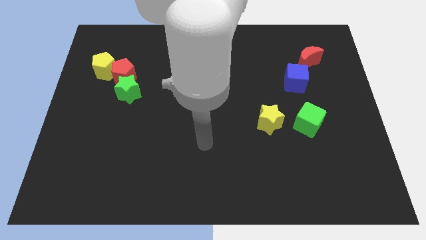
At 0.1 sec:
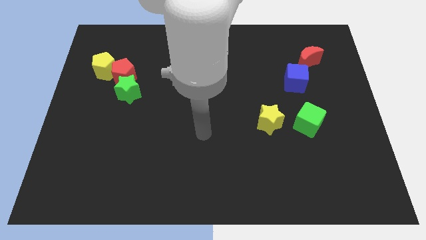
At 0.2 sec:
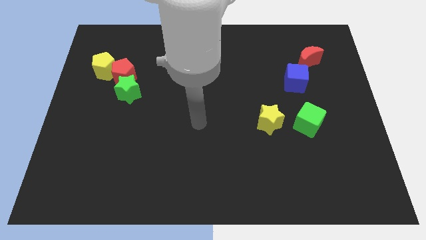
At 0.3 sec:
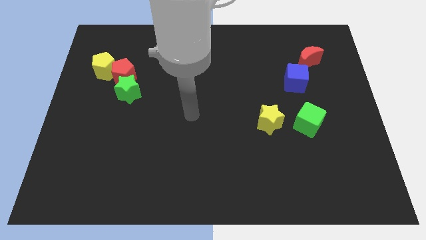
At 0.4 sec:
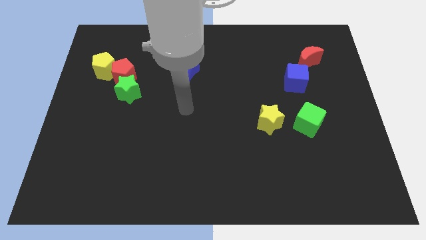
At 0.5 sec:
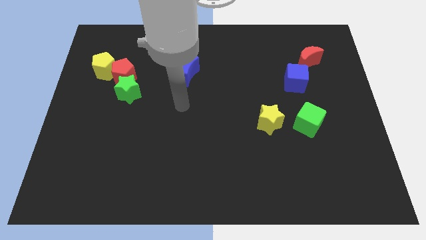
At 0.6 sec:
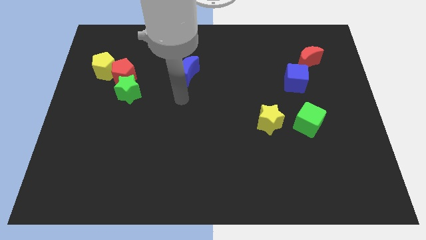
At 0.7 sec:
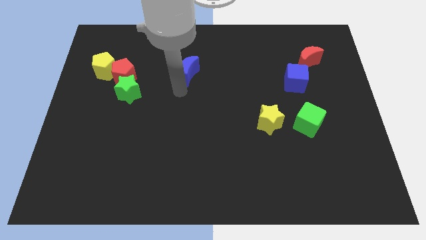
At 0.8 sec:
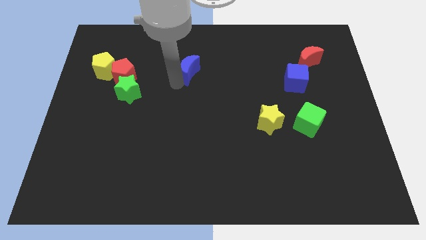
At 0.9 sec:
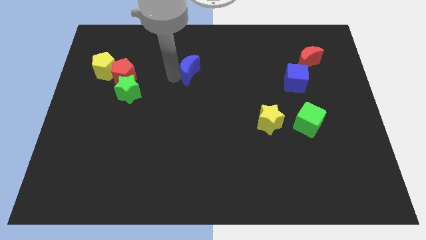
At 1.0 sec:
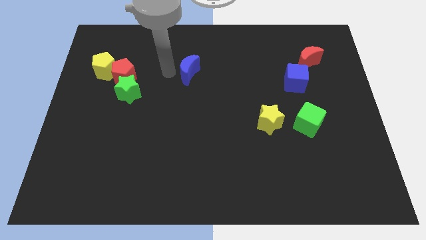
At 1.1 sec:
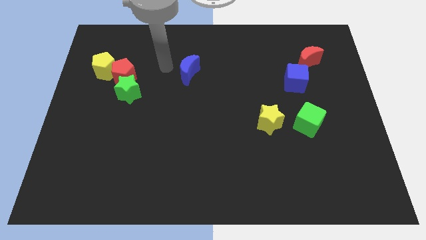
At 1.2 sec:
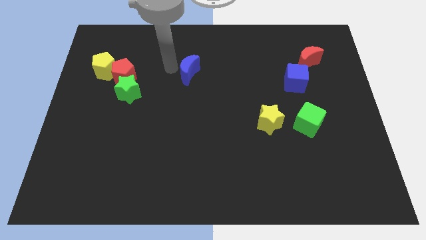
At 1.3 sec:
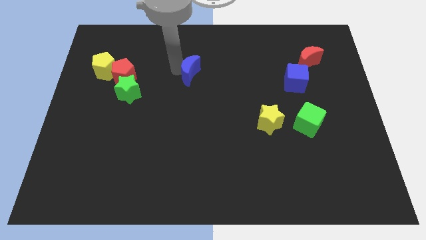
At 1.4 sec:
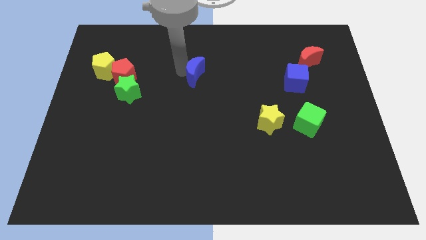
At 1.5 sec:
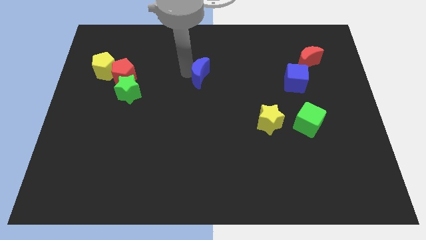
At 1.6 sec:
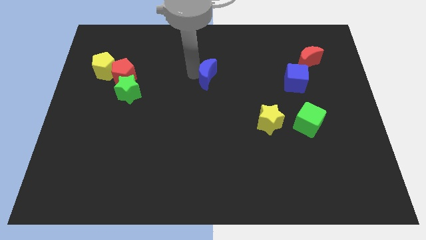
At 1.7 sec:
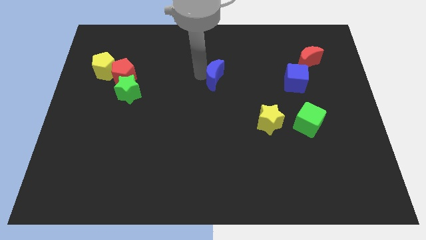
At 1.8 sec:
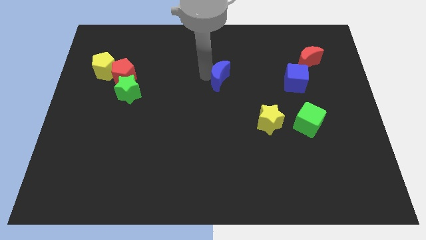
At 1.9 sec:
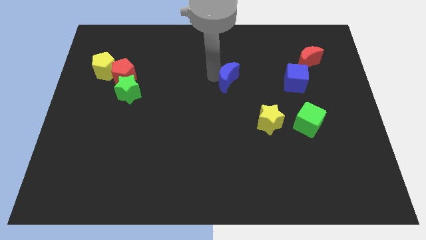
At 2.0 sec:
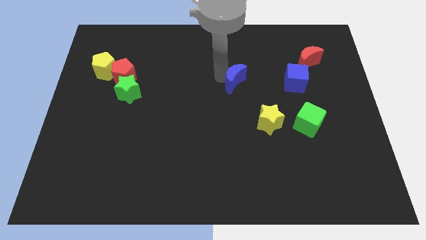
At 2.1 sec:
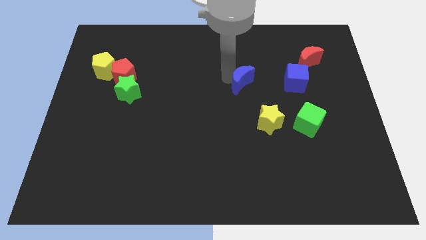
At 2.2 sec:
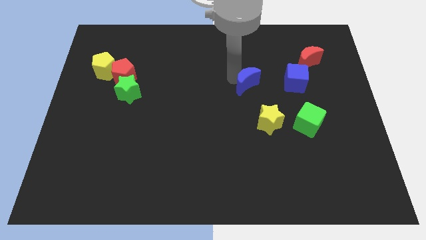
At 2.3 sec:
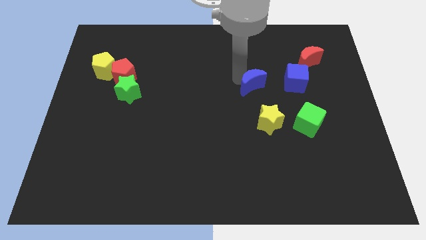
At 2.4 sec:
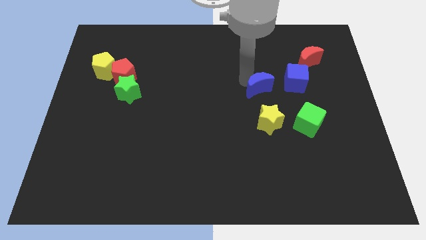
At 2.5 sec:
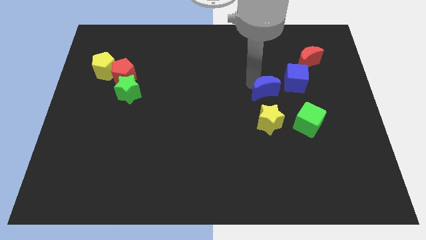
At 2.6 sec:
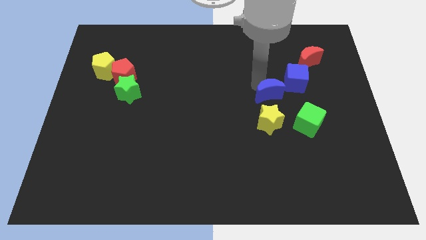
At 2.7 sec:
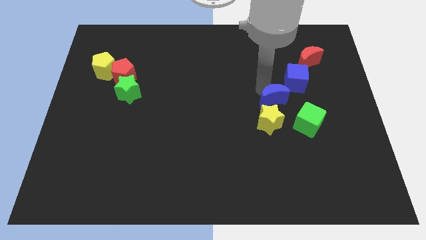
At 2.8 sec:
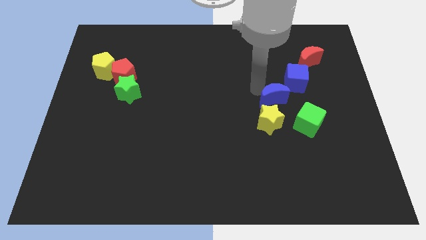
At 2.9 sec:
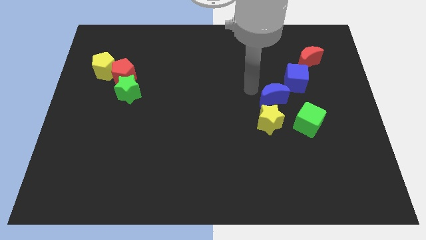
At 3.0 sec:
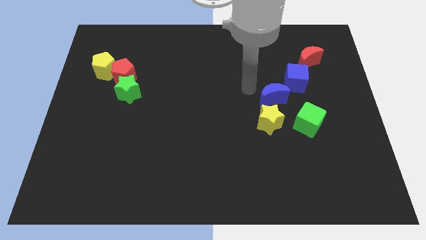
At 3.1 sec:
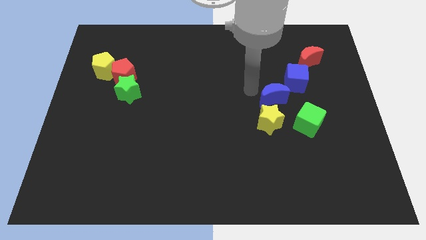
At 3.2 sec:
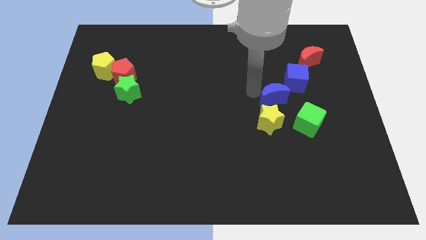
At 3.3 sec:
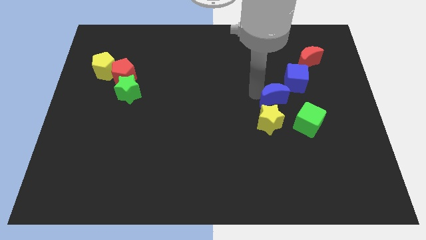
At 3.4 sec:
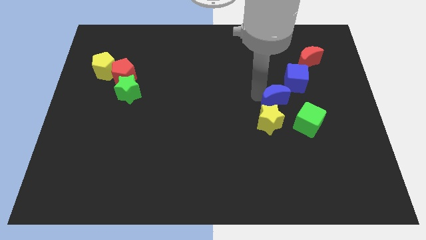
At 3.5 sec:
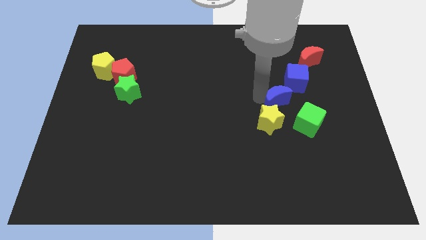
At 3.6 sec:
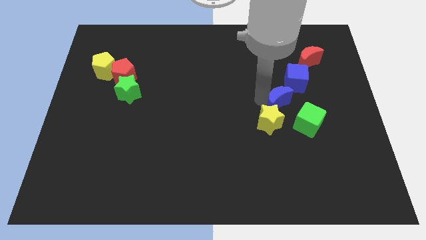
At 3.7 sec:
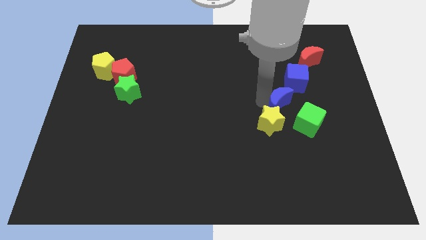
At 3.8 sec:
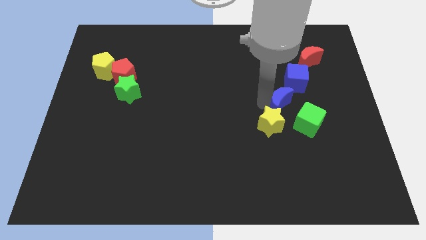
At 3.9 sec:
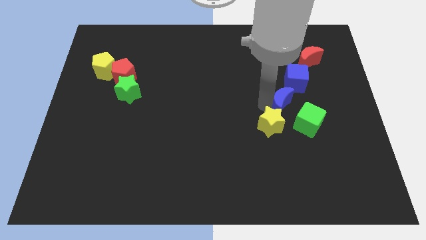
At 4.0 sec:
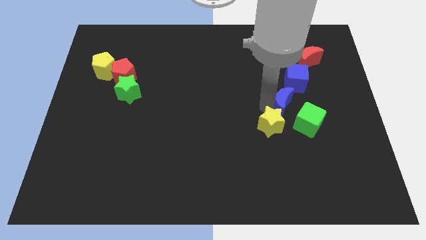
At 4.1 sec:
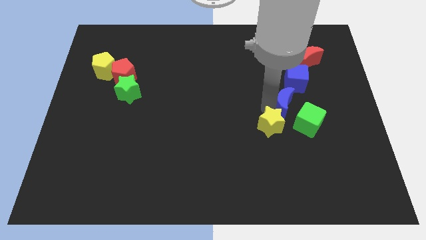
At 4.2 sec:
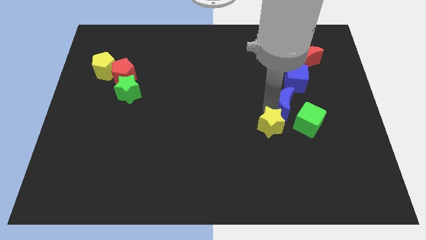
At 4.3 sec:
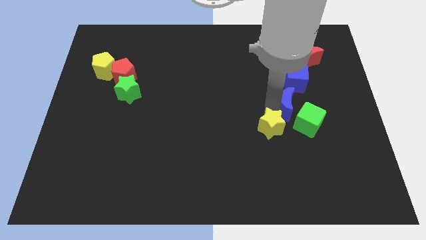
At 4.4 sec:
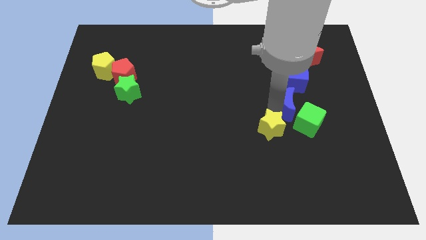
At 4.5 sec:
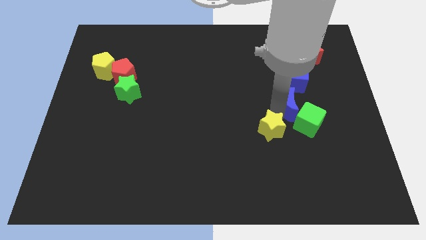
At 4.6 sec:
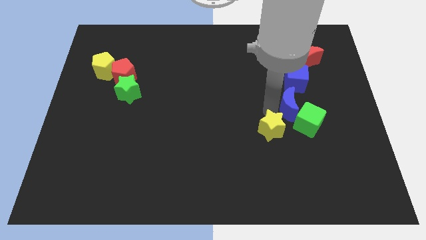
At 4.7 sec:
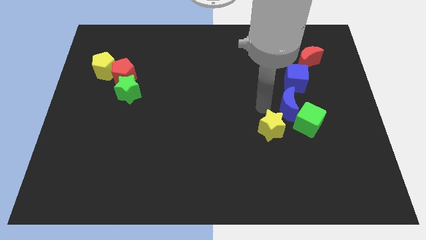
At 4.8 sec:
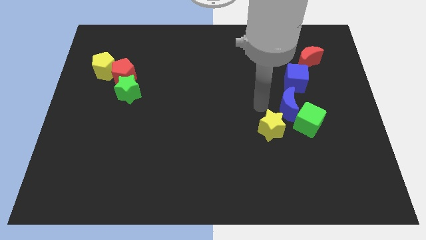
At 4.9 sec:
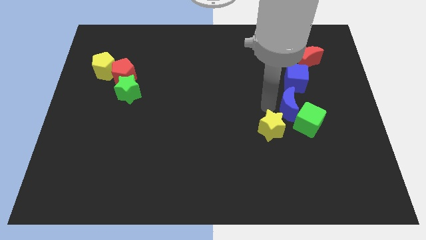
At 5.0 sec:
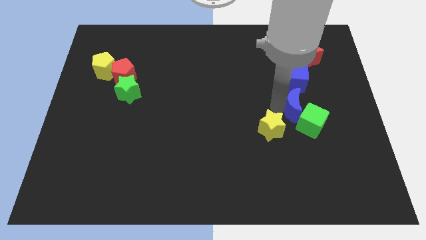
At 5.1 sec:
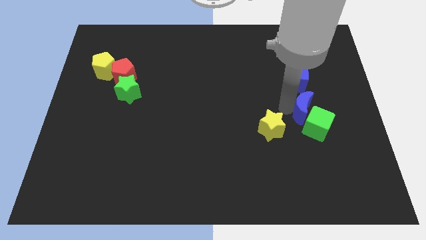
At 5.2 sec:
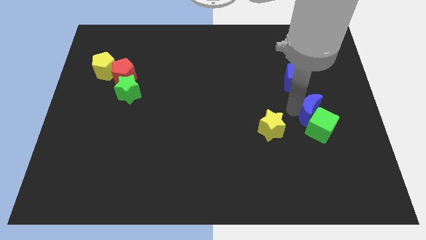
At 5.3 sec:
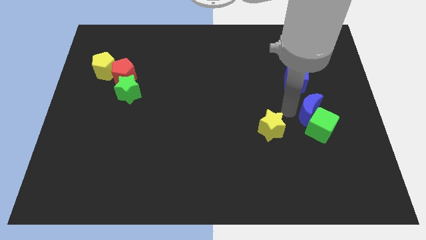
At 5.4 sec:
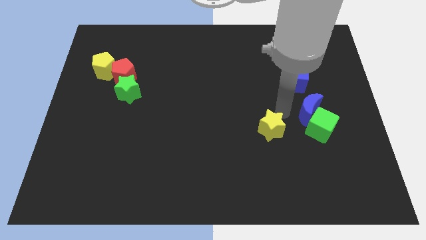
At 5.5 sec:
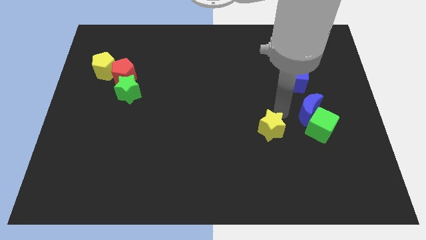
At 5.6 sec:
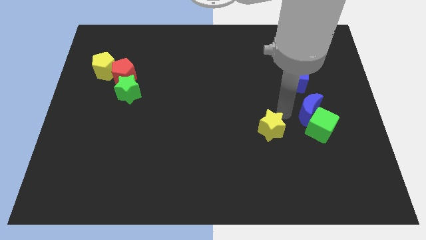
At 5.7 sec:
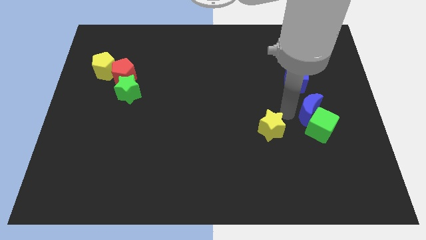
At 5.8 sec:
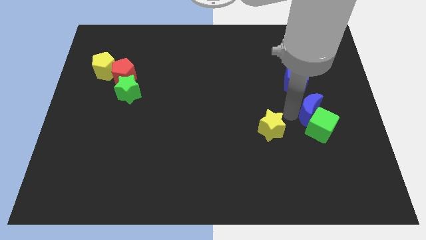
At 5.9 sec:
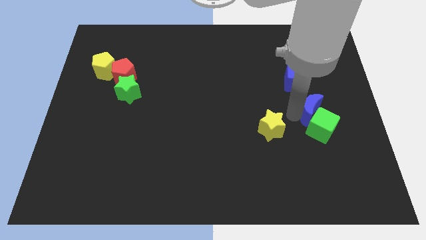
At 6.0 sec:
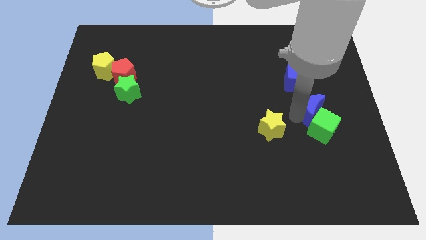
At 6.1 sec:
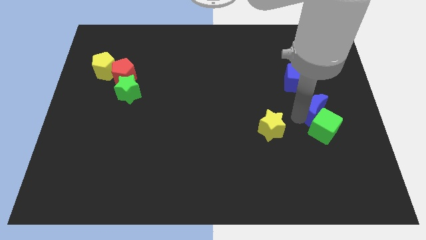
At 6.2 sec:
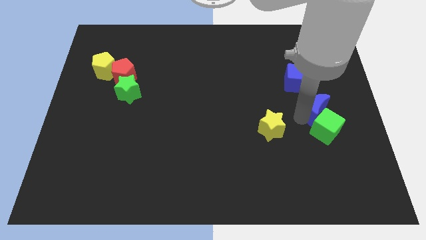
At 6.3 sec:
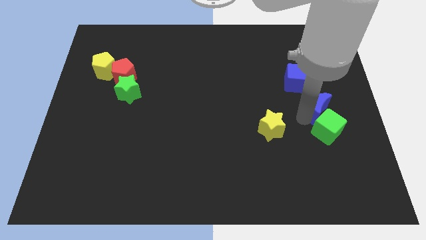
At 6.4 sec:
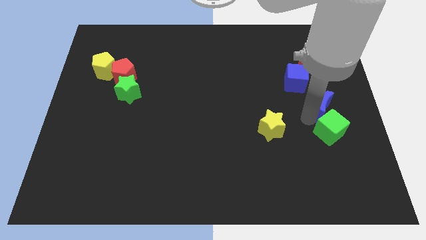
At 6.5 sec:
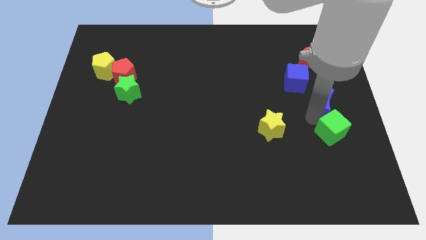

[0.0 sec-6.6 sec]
slide the blue moon to the center right
